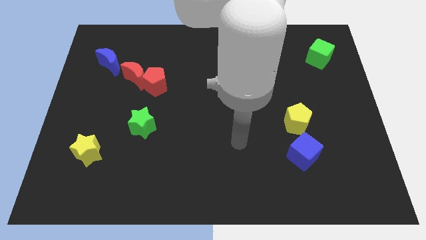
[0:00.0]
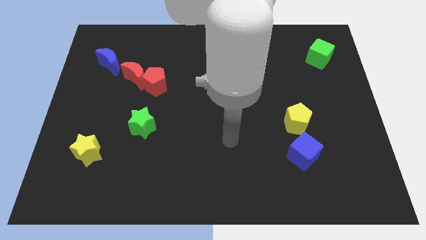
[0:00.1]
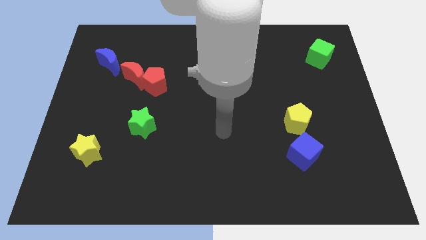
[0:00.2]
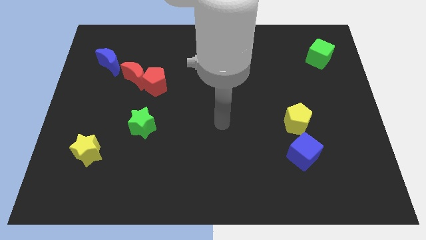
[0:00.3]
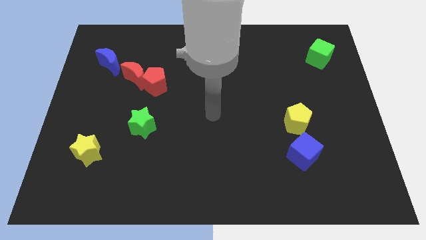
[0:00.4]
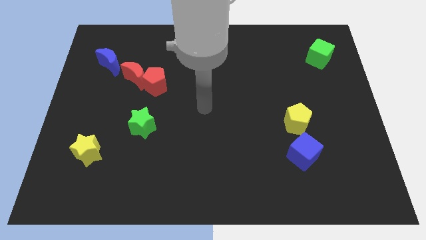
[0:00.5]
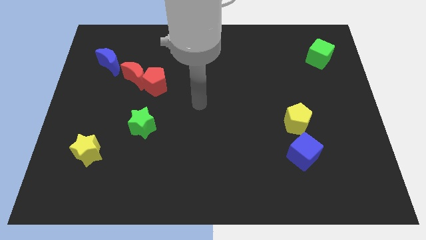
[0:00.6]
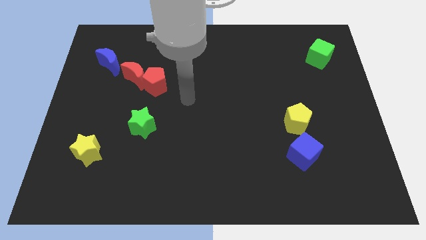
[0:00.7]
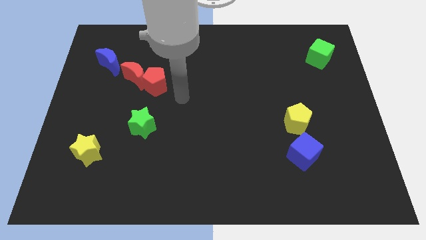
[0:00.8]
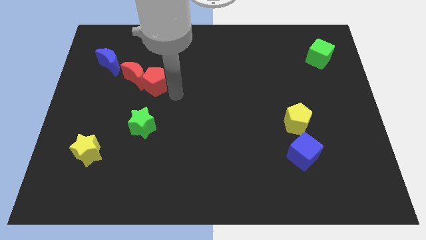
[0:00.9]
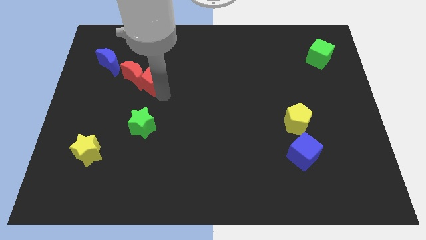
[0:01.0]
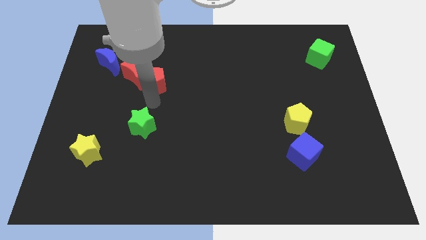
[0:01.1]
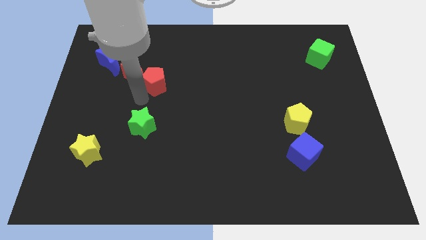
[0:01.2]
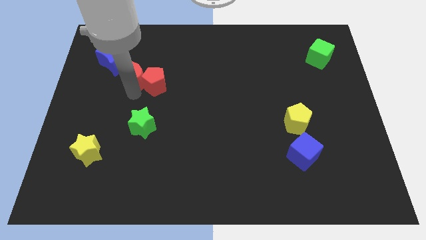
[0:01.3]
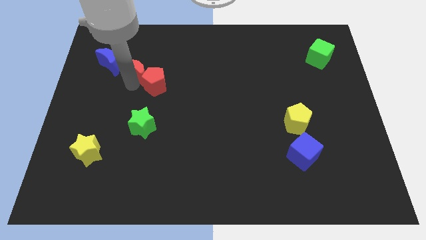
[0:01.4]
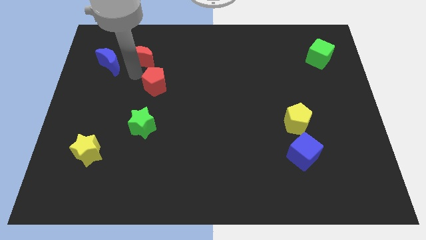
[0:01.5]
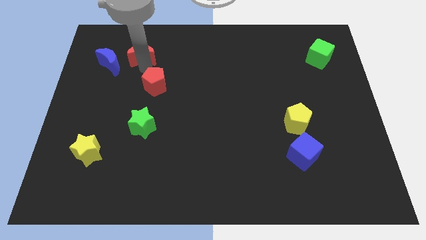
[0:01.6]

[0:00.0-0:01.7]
pull the red pentagon apart from the red moon

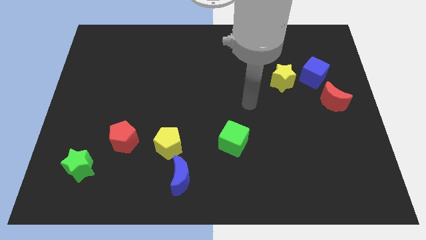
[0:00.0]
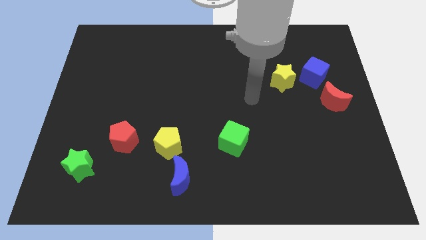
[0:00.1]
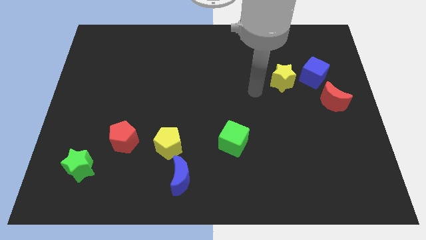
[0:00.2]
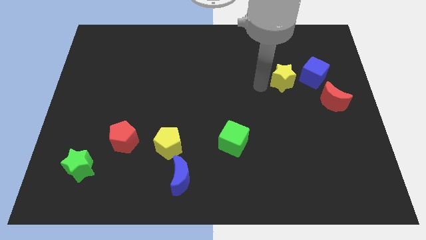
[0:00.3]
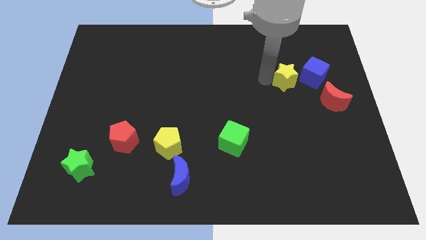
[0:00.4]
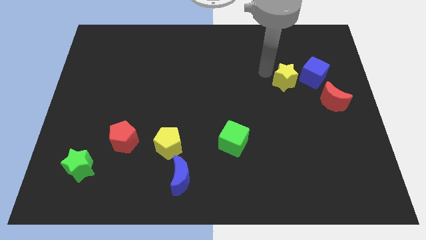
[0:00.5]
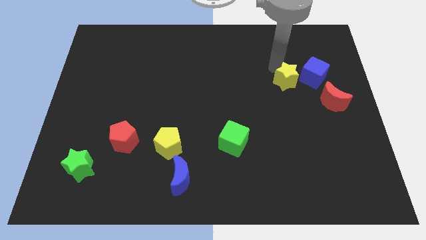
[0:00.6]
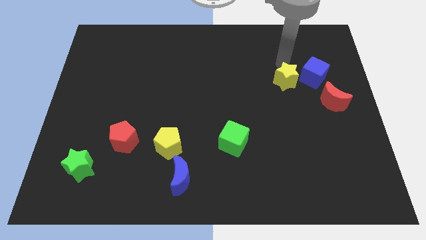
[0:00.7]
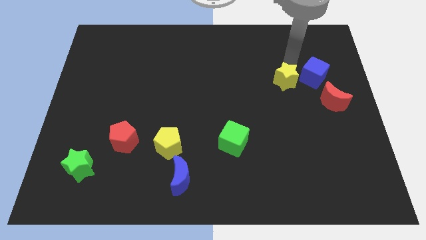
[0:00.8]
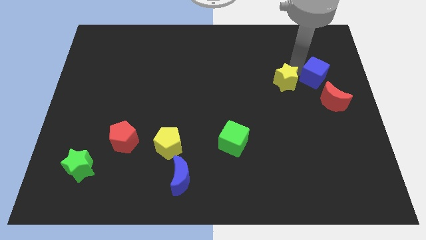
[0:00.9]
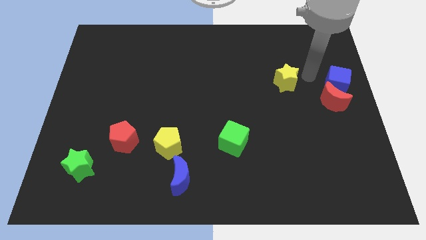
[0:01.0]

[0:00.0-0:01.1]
move the yellow star away from the blue cube

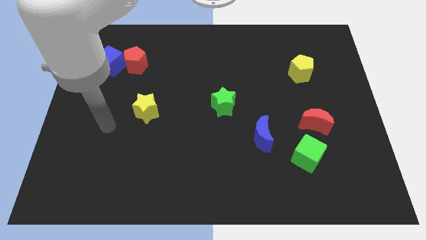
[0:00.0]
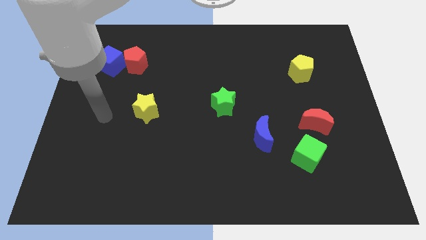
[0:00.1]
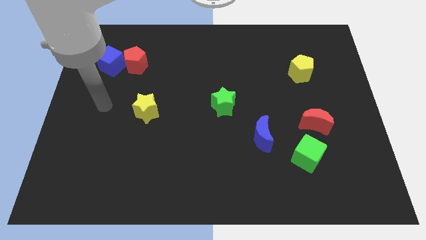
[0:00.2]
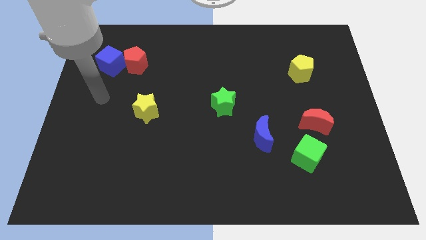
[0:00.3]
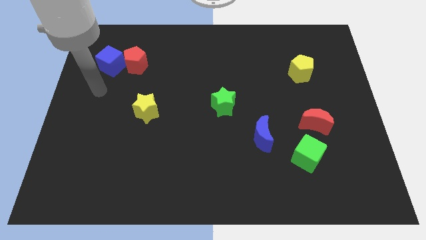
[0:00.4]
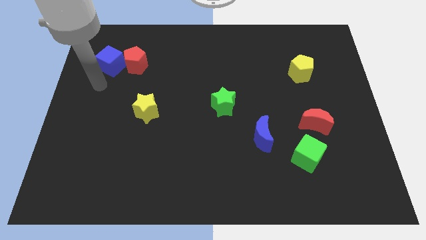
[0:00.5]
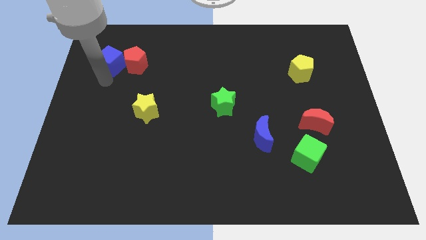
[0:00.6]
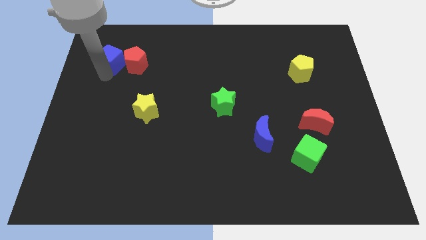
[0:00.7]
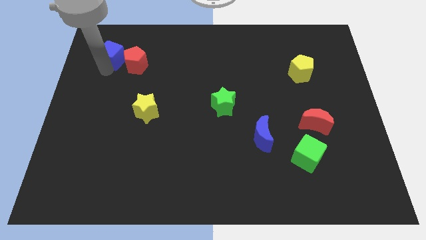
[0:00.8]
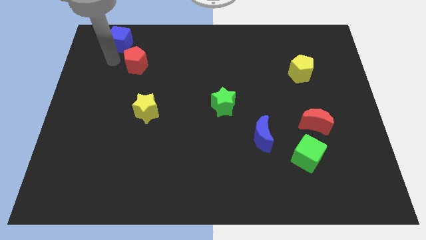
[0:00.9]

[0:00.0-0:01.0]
pull the red pentagon apart from the blue cube

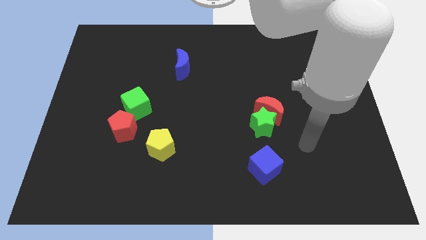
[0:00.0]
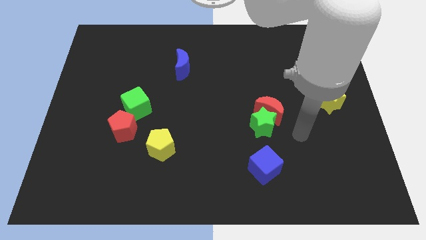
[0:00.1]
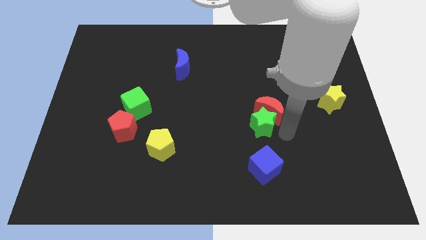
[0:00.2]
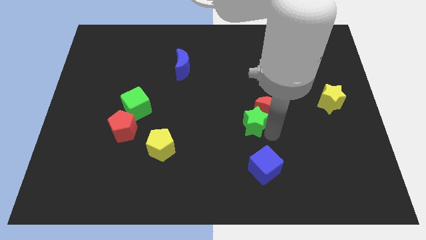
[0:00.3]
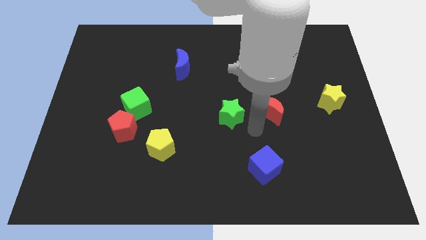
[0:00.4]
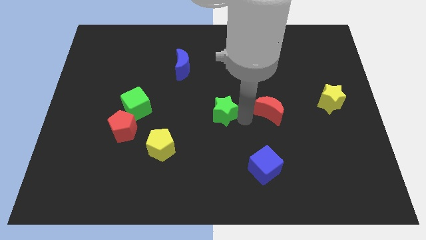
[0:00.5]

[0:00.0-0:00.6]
pull the red moon apart from the green star

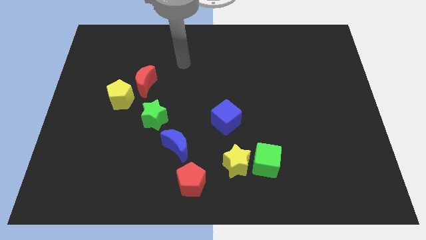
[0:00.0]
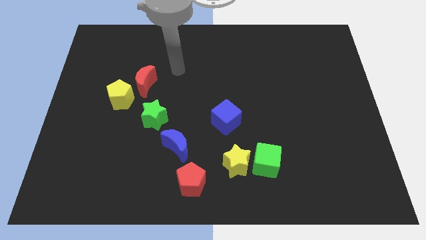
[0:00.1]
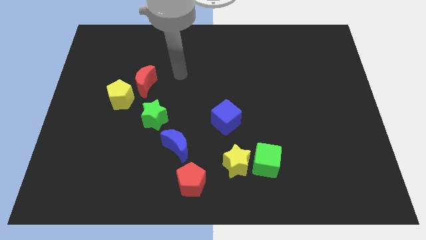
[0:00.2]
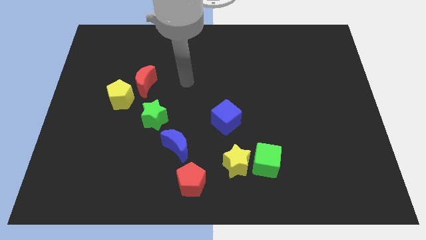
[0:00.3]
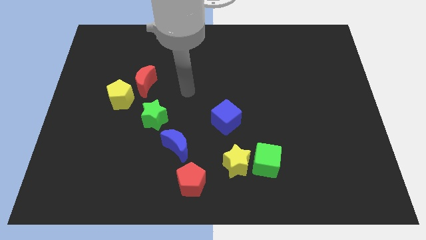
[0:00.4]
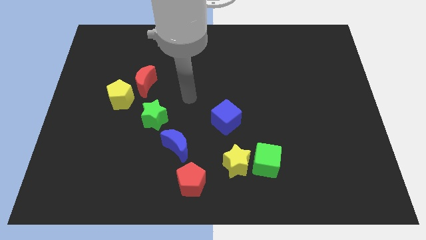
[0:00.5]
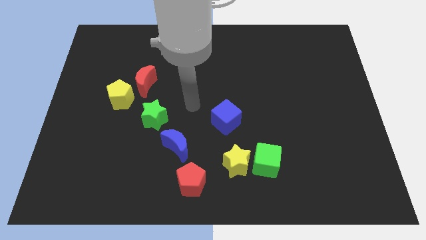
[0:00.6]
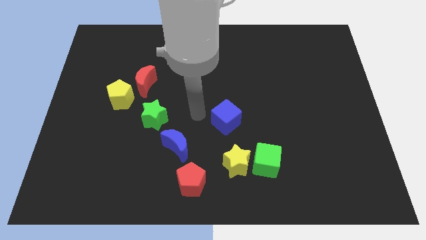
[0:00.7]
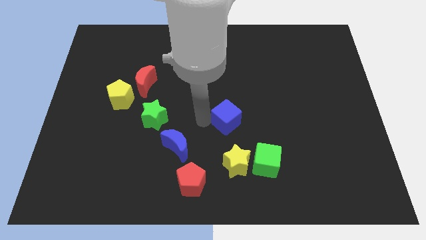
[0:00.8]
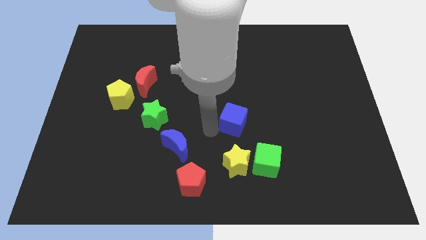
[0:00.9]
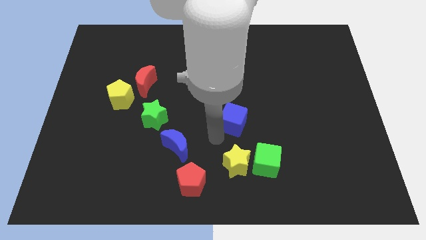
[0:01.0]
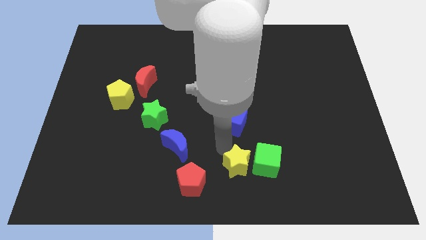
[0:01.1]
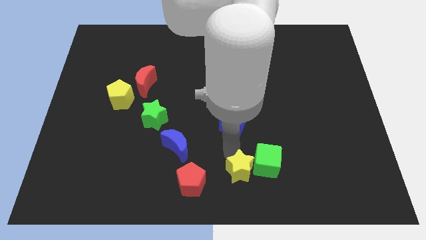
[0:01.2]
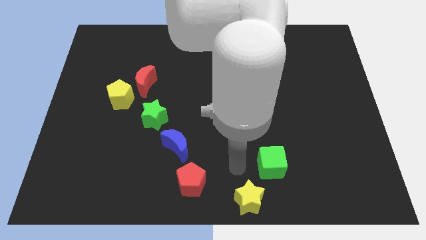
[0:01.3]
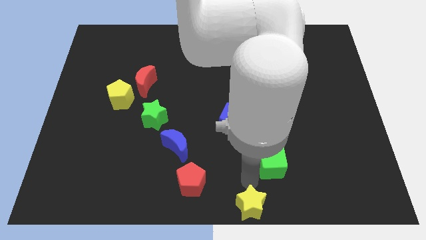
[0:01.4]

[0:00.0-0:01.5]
separate the green cube from the yellow star

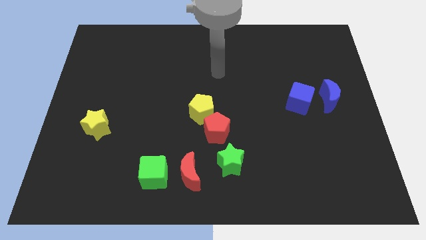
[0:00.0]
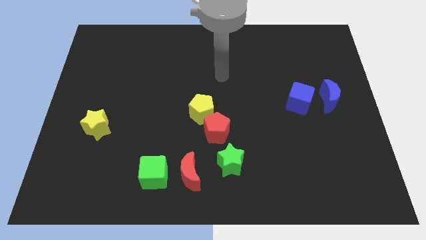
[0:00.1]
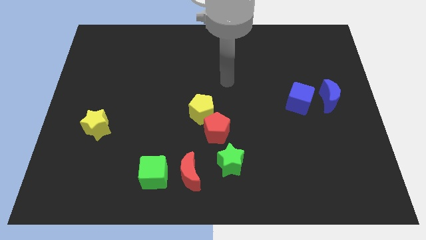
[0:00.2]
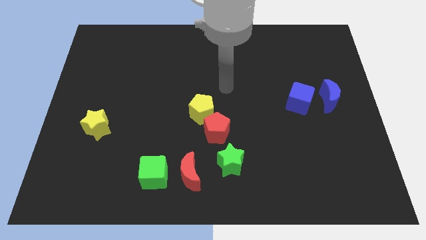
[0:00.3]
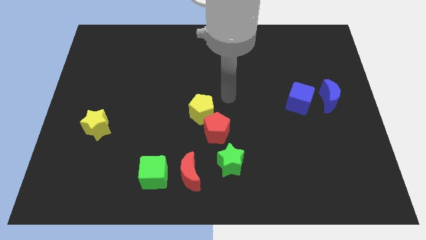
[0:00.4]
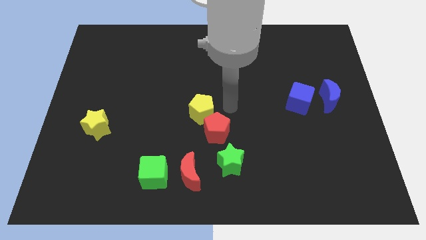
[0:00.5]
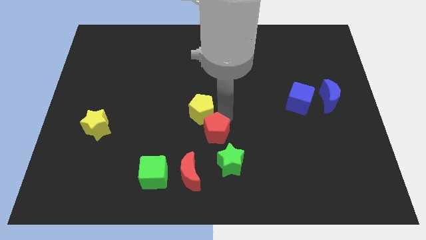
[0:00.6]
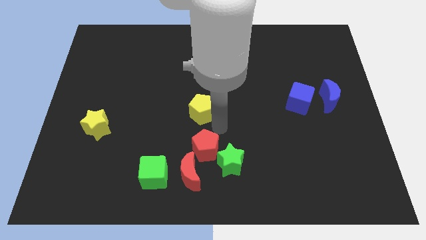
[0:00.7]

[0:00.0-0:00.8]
pull the yellow pentagon apart from the red pentagon

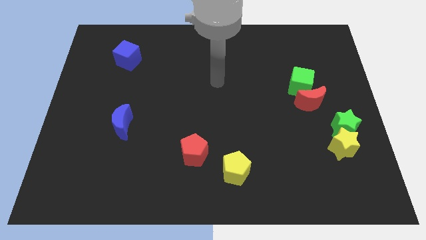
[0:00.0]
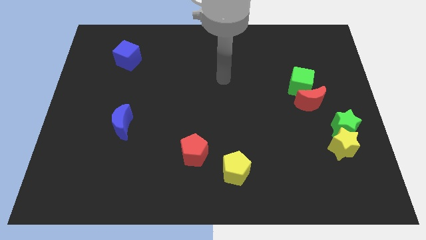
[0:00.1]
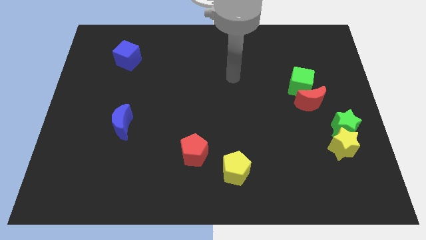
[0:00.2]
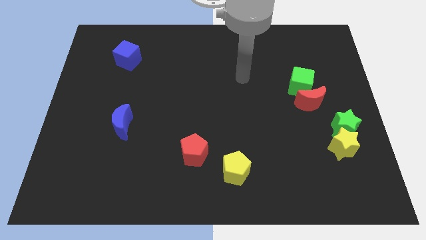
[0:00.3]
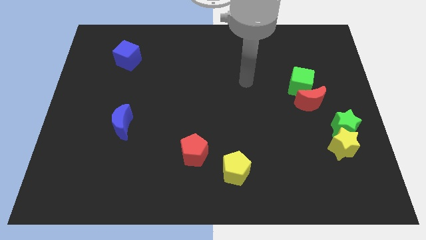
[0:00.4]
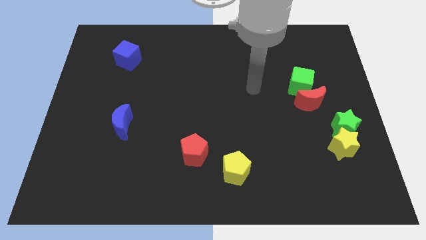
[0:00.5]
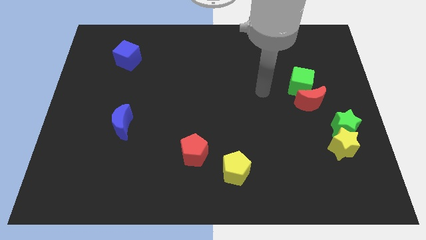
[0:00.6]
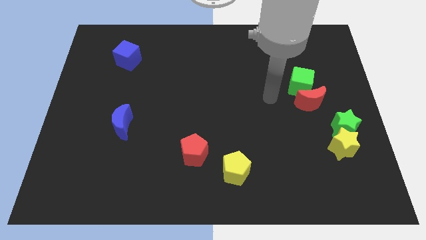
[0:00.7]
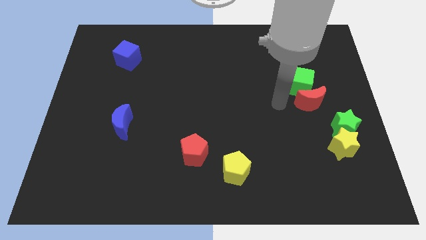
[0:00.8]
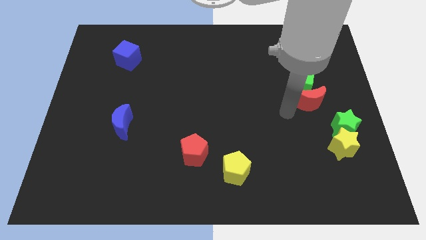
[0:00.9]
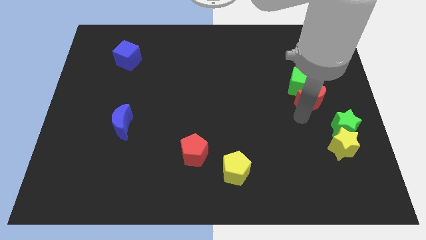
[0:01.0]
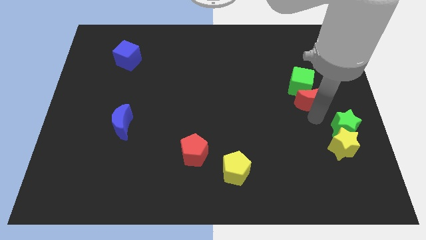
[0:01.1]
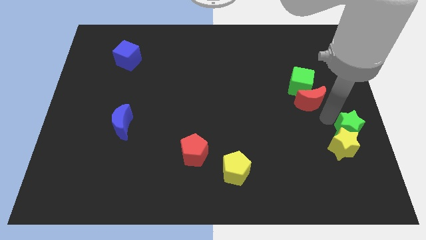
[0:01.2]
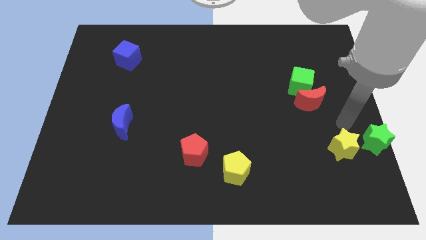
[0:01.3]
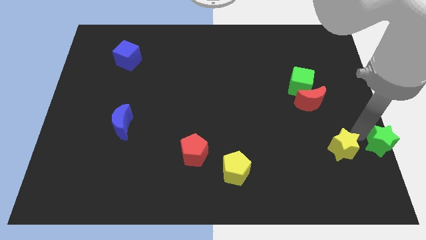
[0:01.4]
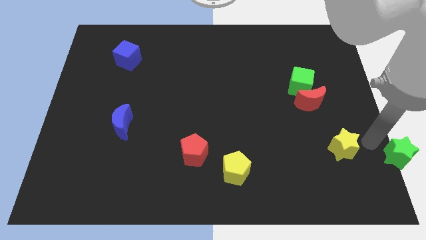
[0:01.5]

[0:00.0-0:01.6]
move the yellow star away from the green star

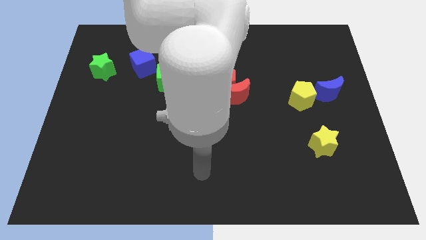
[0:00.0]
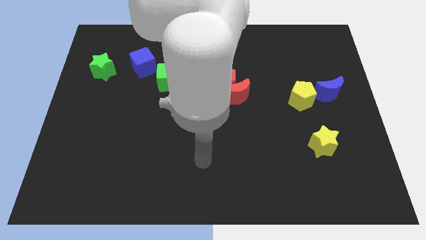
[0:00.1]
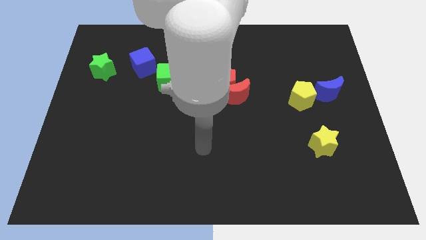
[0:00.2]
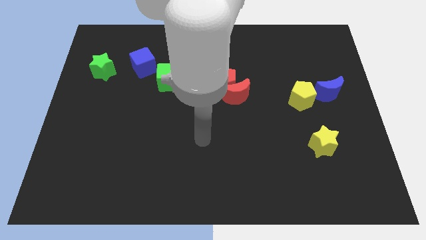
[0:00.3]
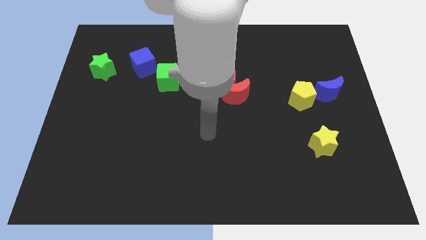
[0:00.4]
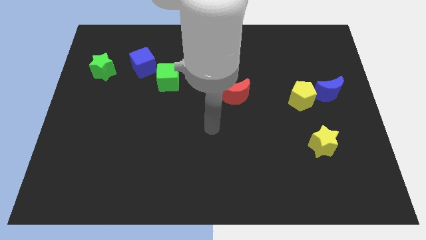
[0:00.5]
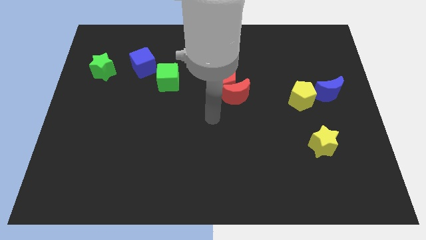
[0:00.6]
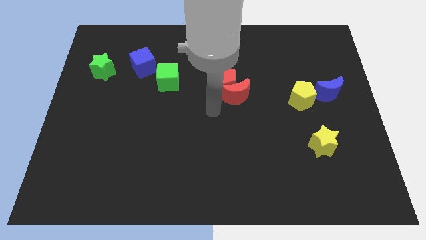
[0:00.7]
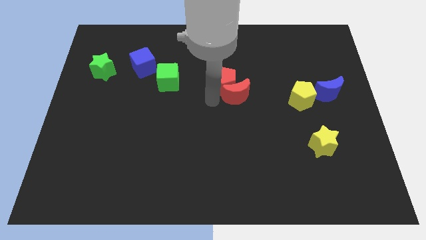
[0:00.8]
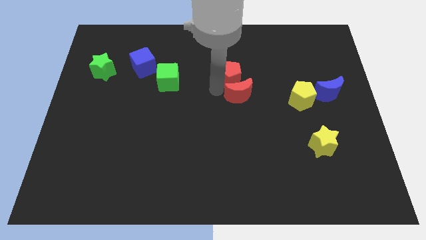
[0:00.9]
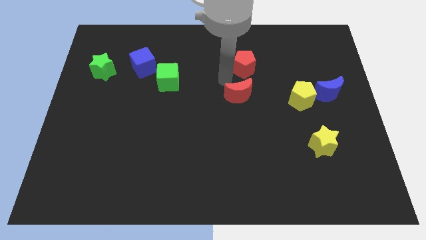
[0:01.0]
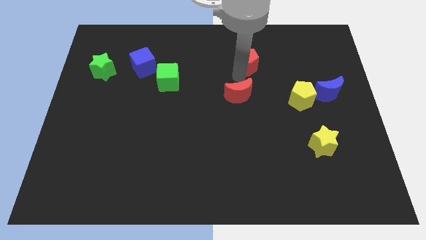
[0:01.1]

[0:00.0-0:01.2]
move the red moon away from the red pentagon
